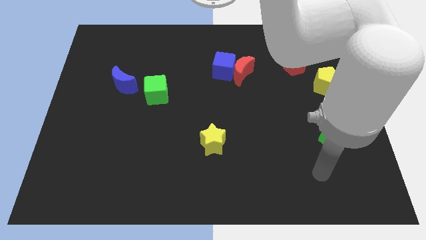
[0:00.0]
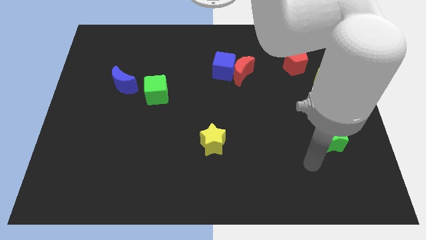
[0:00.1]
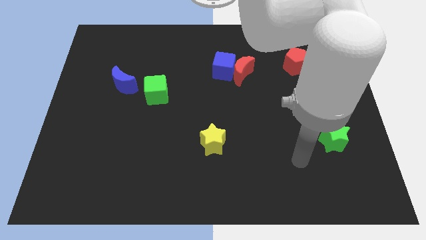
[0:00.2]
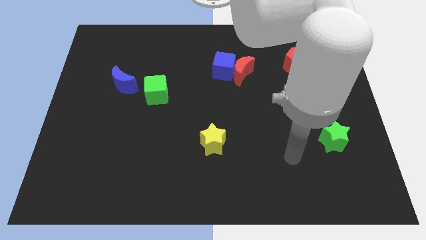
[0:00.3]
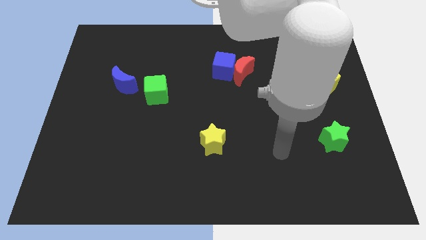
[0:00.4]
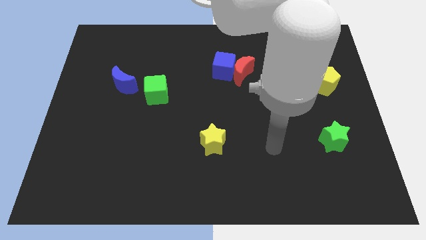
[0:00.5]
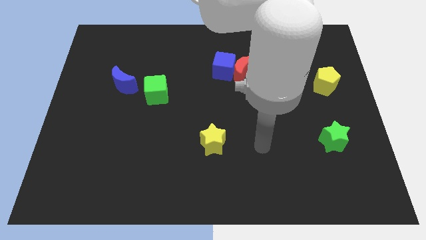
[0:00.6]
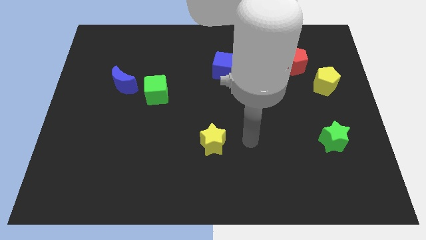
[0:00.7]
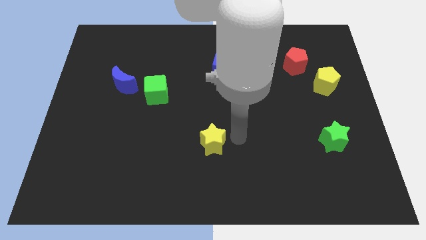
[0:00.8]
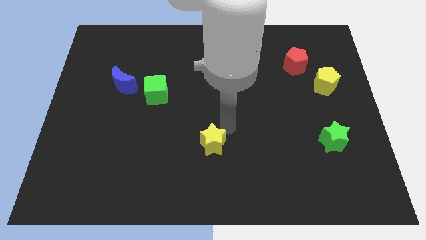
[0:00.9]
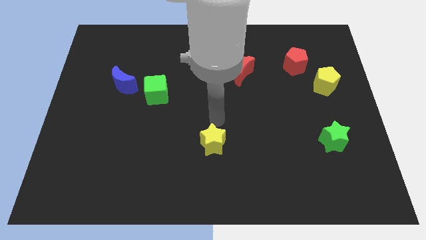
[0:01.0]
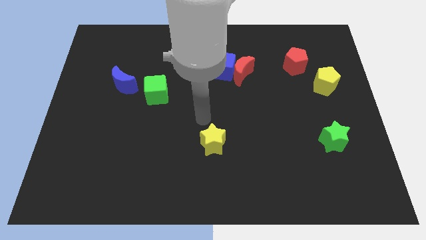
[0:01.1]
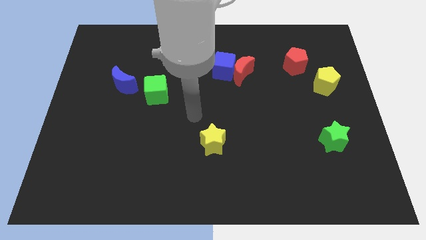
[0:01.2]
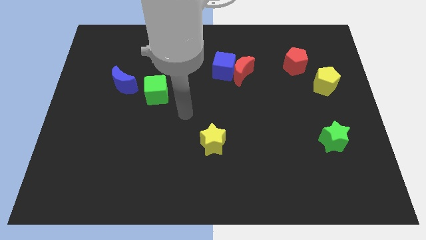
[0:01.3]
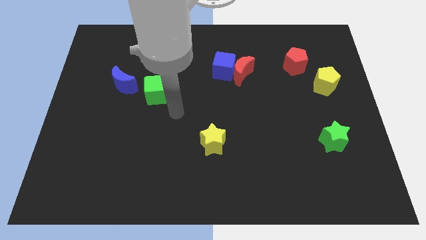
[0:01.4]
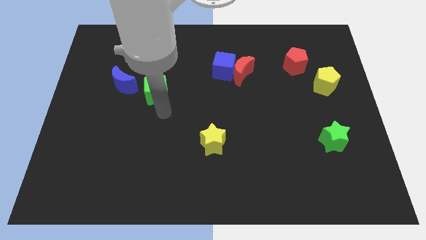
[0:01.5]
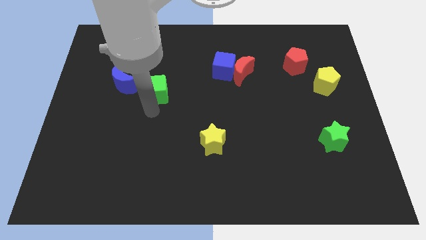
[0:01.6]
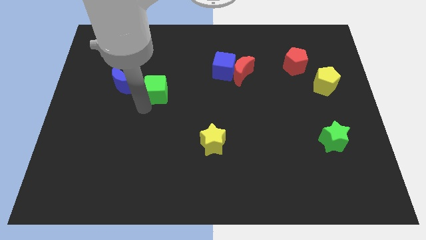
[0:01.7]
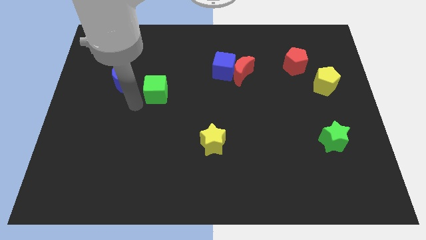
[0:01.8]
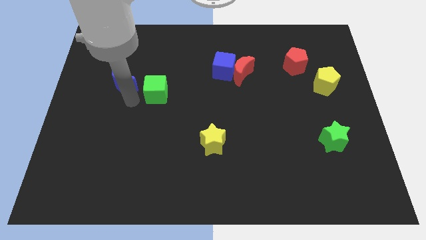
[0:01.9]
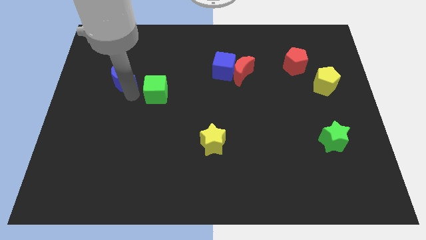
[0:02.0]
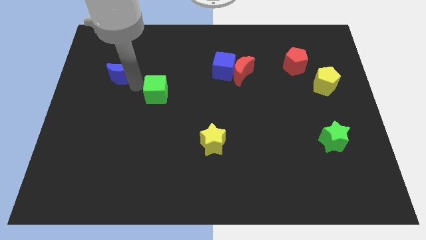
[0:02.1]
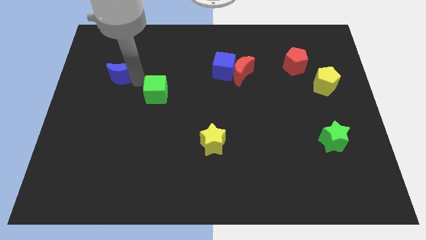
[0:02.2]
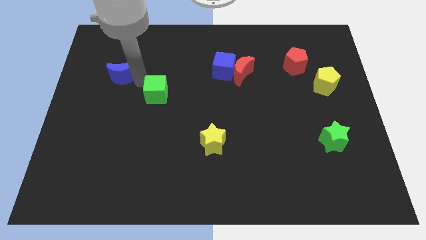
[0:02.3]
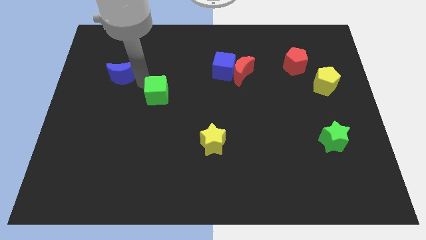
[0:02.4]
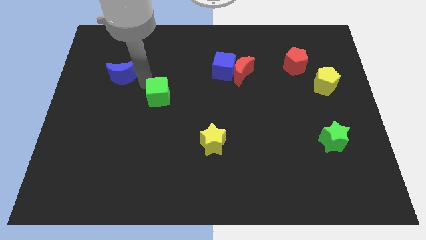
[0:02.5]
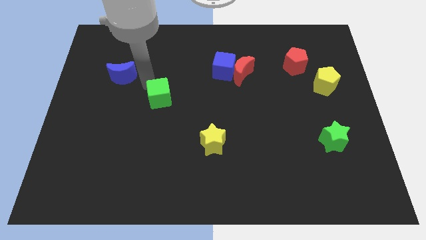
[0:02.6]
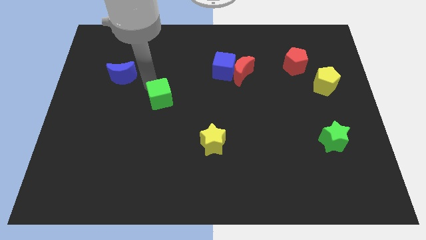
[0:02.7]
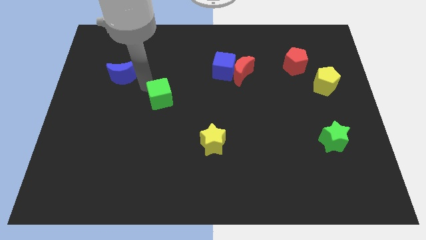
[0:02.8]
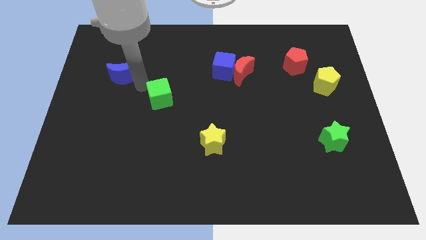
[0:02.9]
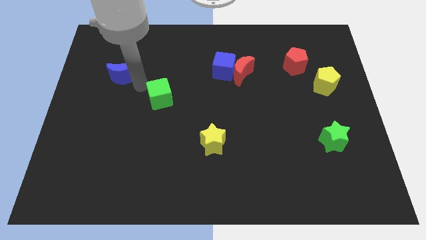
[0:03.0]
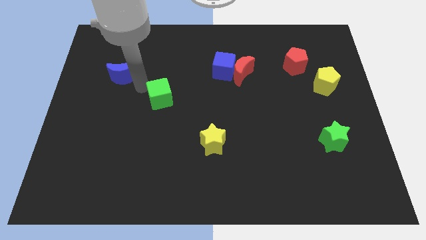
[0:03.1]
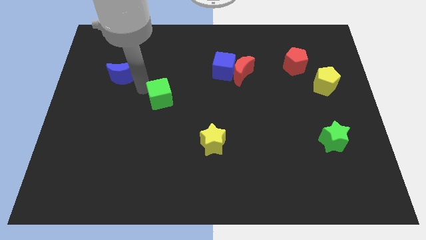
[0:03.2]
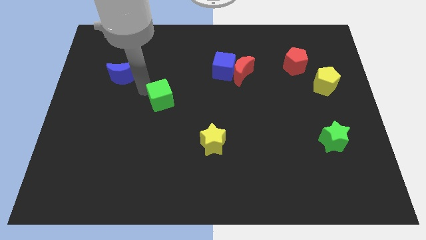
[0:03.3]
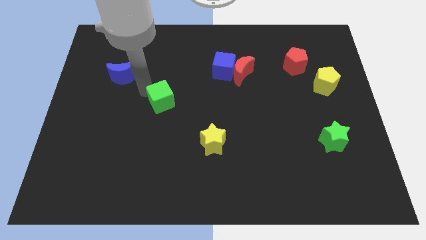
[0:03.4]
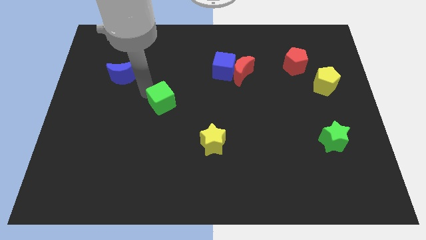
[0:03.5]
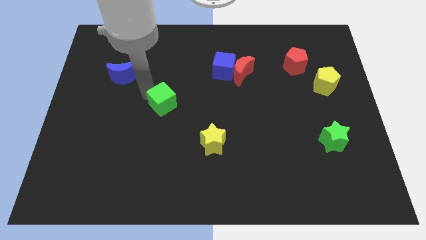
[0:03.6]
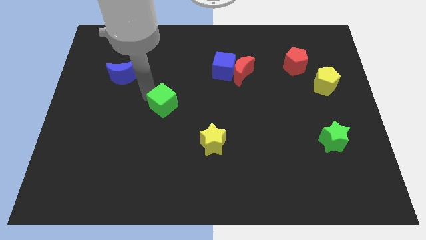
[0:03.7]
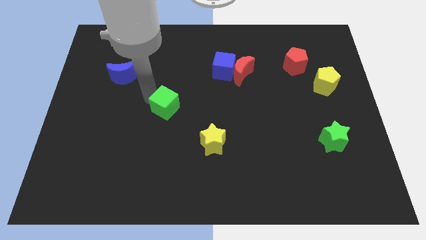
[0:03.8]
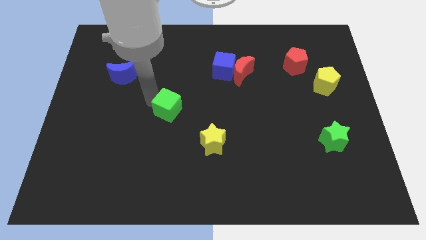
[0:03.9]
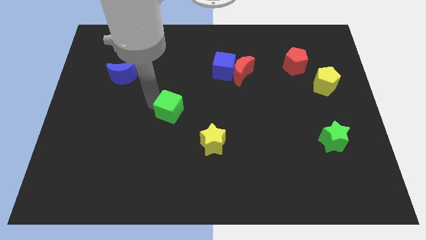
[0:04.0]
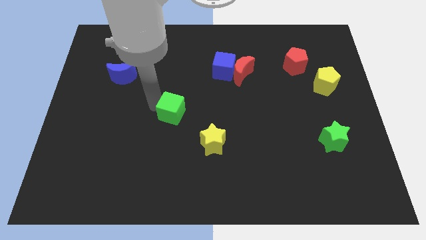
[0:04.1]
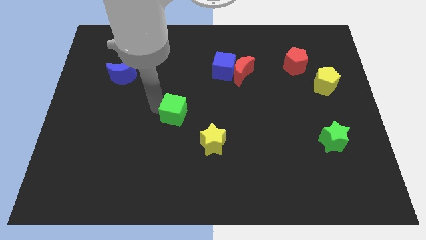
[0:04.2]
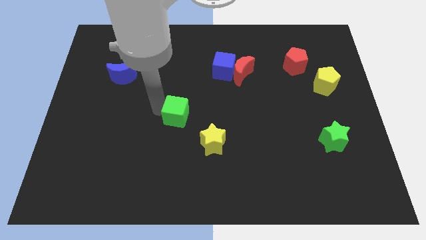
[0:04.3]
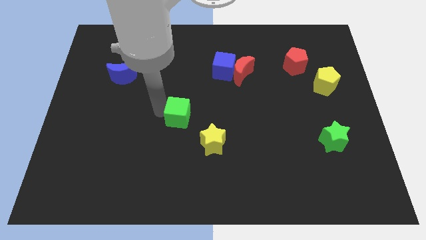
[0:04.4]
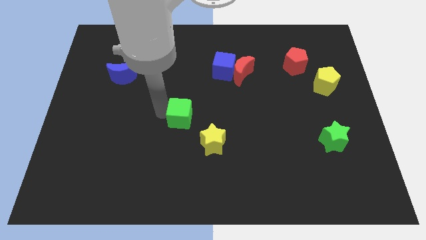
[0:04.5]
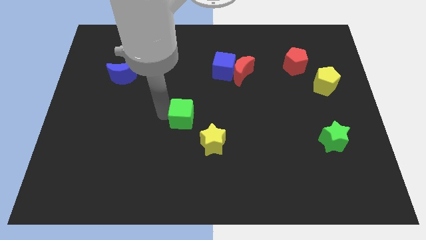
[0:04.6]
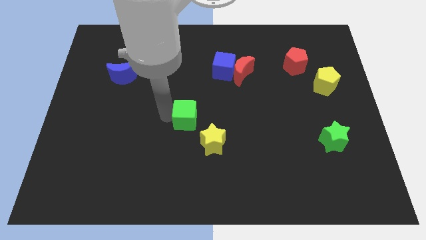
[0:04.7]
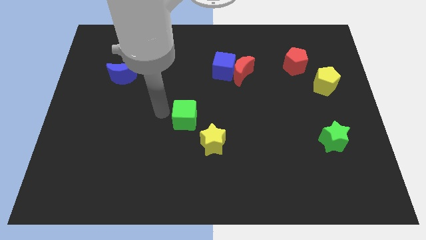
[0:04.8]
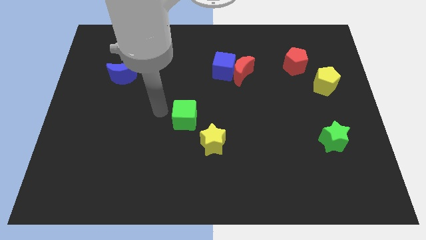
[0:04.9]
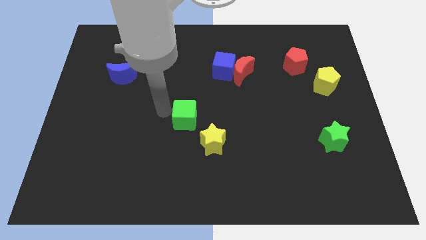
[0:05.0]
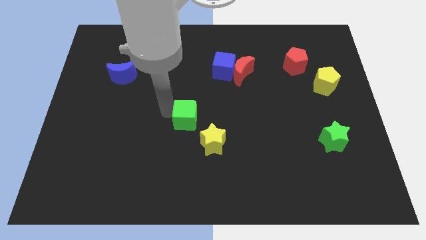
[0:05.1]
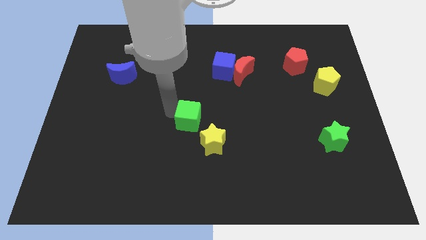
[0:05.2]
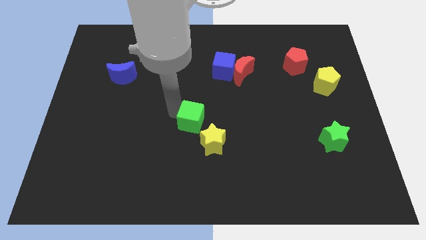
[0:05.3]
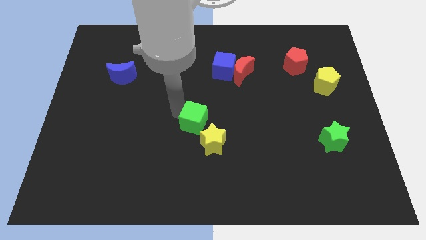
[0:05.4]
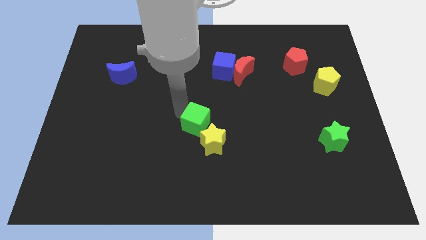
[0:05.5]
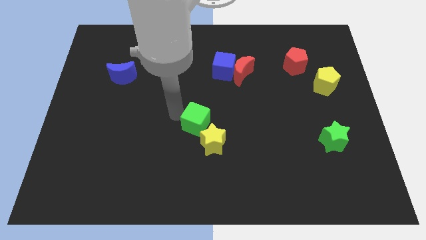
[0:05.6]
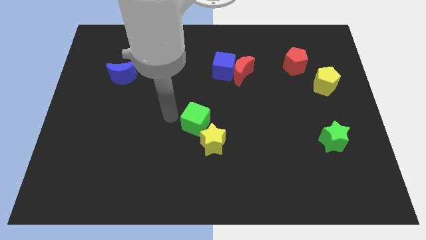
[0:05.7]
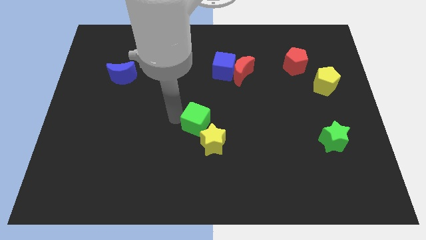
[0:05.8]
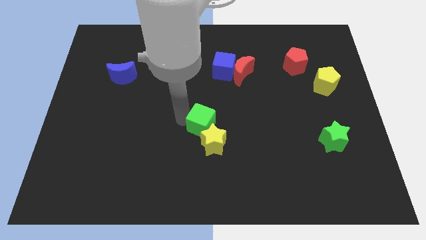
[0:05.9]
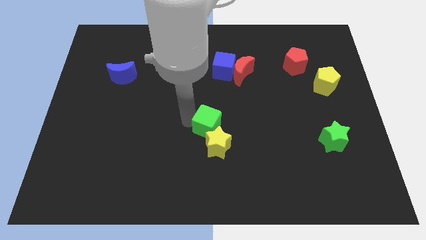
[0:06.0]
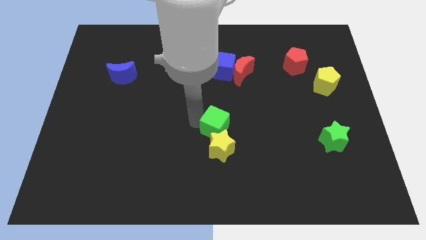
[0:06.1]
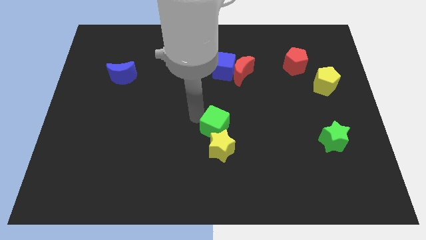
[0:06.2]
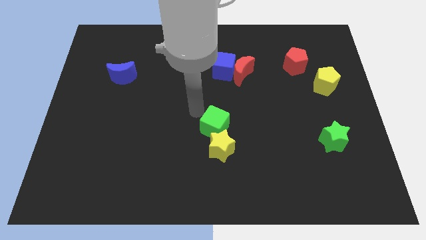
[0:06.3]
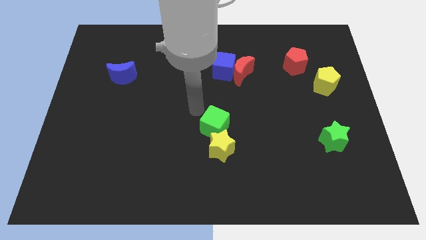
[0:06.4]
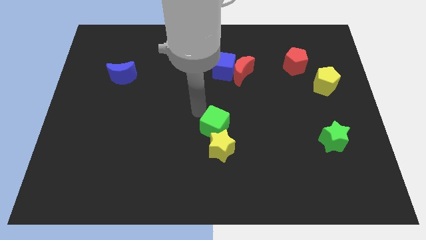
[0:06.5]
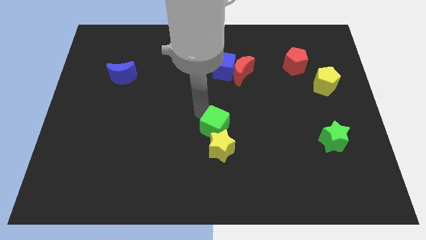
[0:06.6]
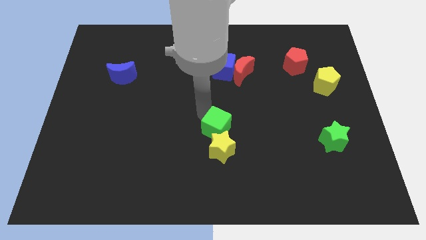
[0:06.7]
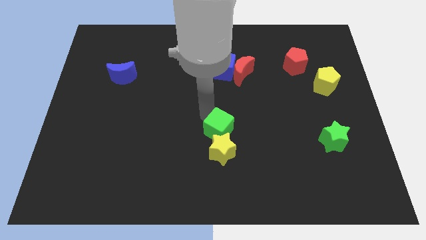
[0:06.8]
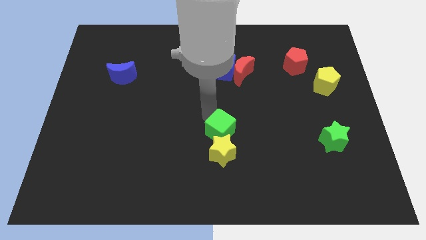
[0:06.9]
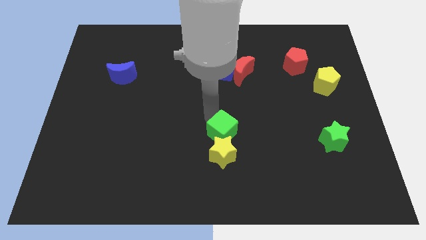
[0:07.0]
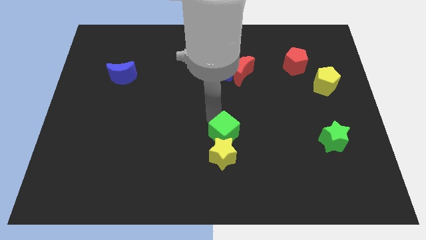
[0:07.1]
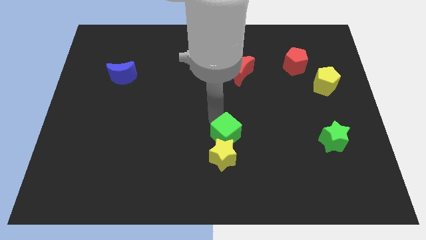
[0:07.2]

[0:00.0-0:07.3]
slide the green cube down and then right

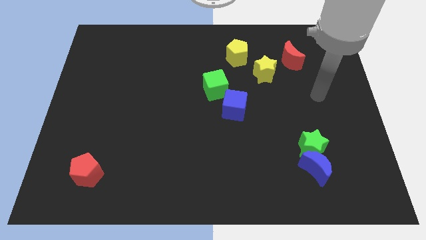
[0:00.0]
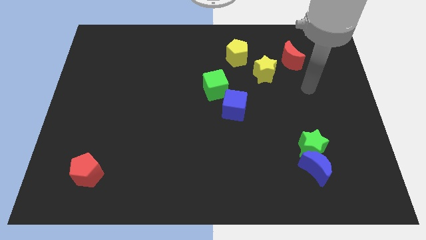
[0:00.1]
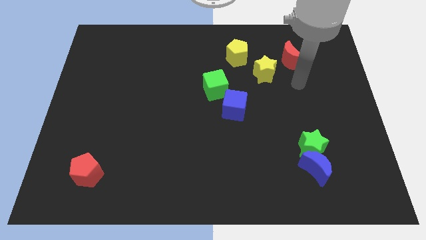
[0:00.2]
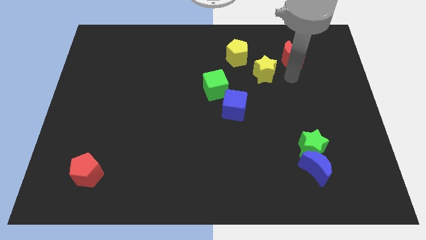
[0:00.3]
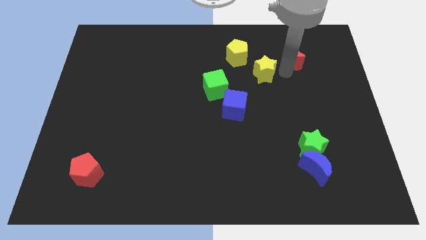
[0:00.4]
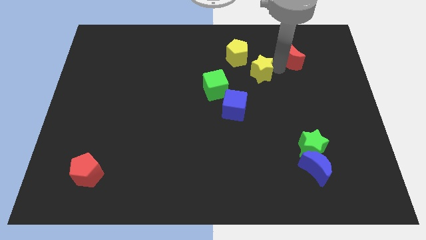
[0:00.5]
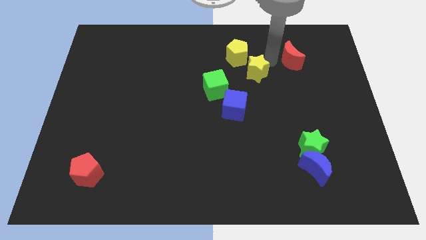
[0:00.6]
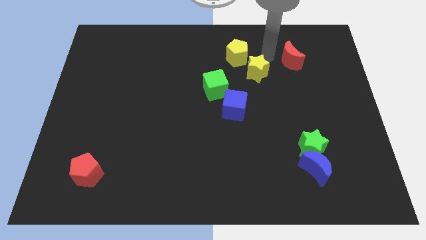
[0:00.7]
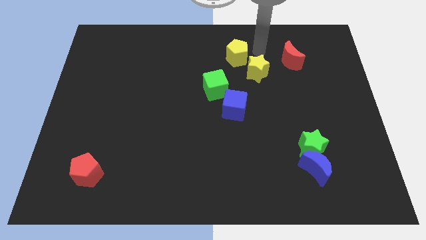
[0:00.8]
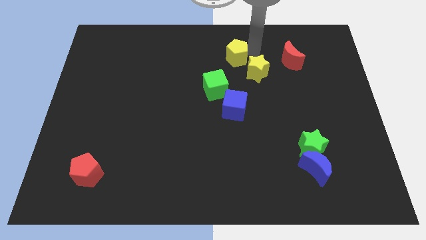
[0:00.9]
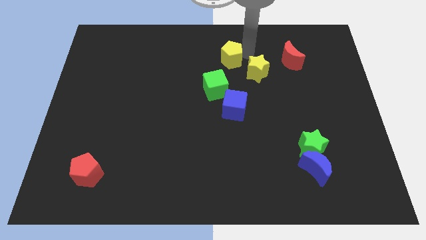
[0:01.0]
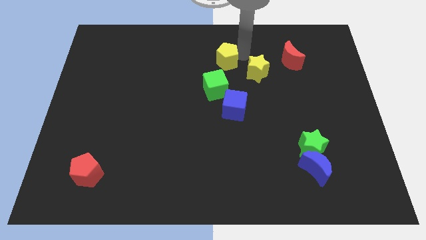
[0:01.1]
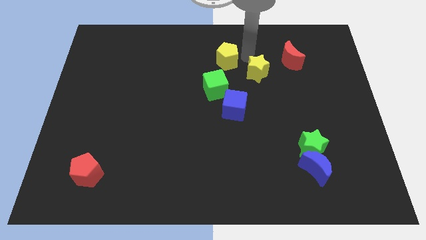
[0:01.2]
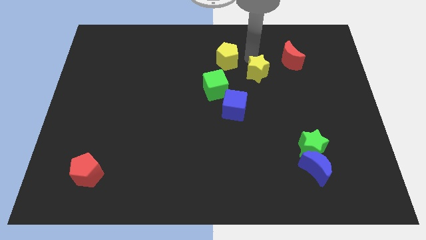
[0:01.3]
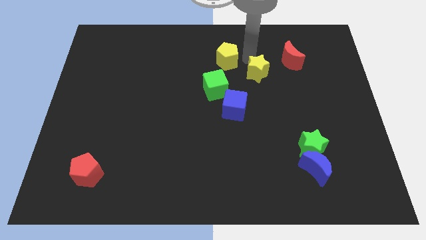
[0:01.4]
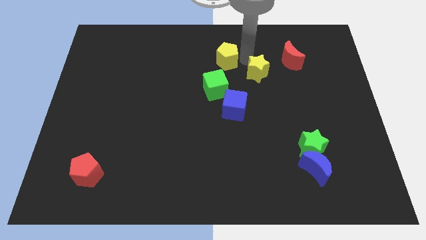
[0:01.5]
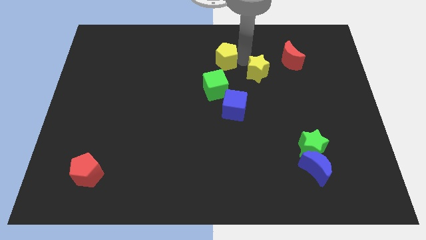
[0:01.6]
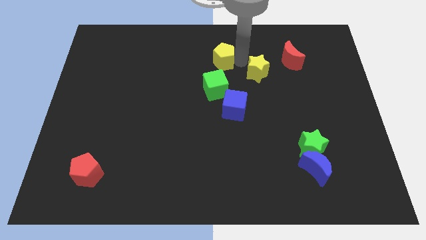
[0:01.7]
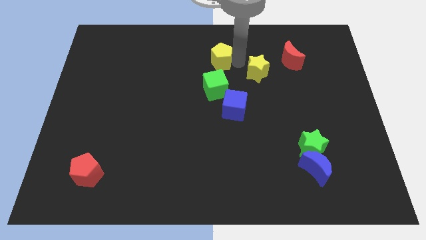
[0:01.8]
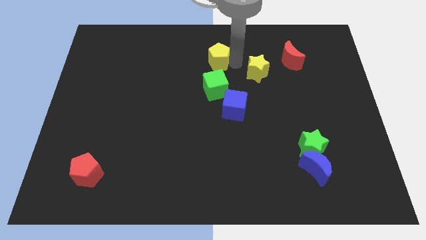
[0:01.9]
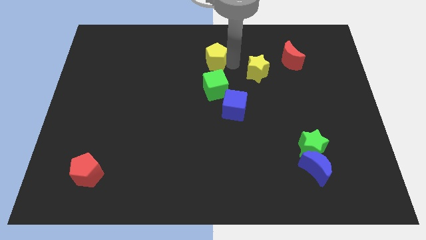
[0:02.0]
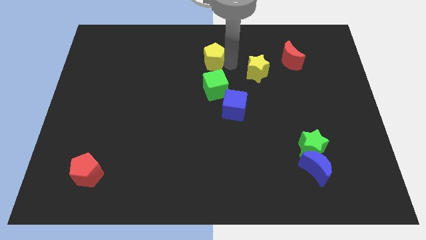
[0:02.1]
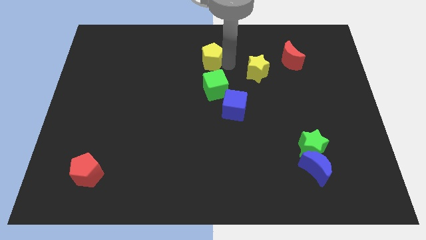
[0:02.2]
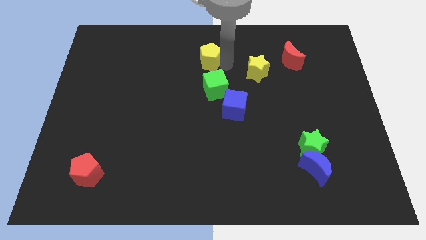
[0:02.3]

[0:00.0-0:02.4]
push the yellow pentagon to the left slightly
